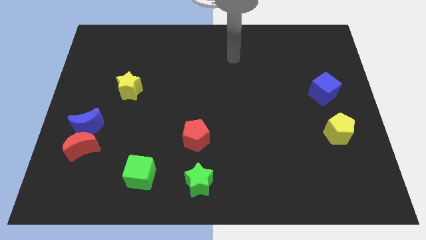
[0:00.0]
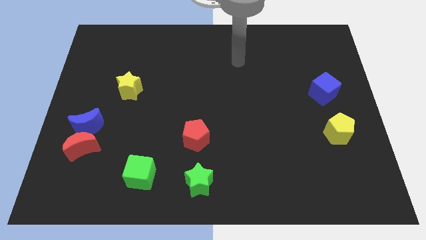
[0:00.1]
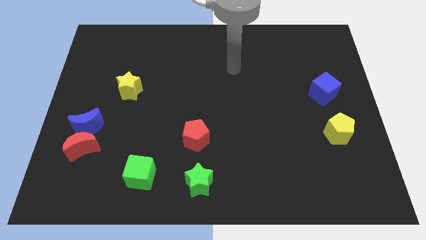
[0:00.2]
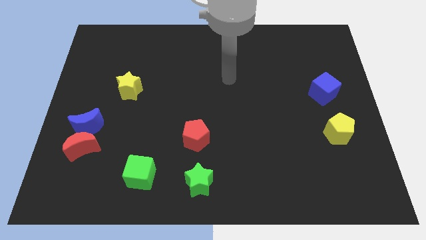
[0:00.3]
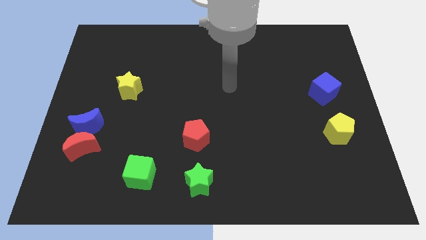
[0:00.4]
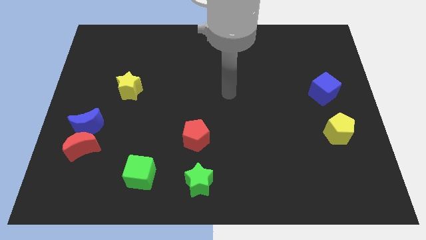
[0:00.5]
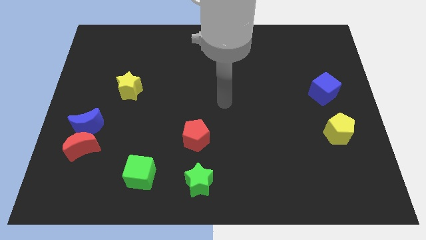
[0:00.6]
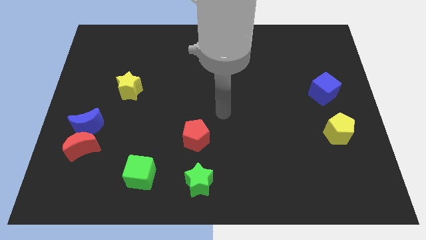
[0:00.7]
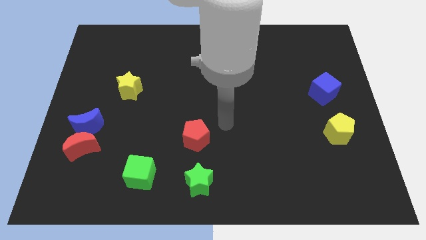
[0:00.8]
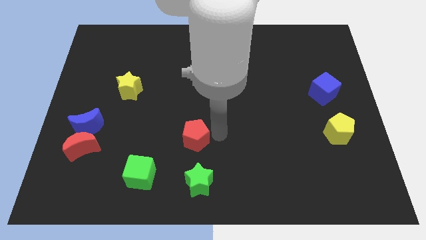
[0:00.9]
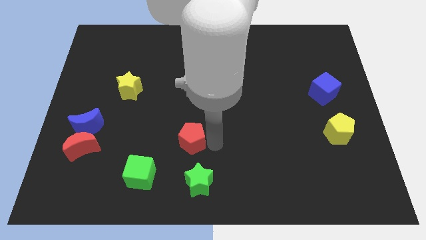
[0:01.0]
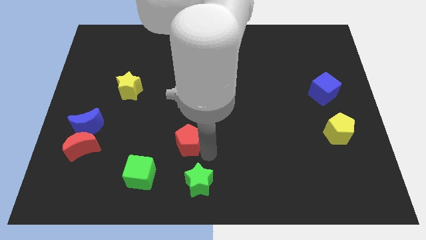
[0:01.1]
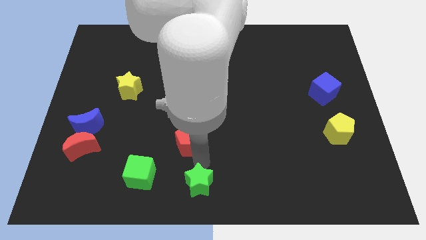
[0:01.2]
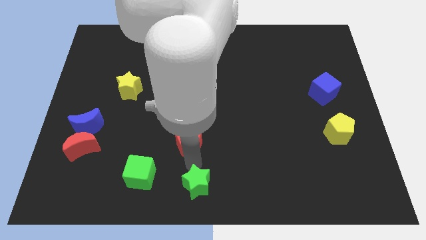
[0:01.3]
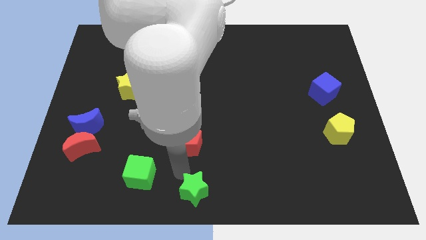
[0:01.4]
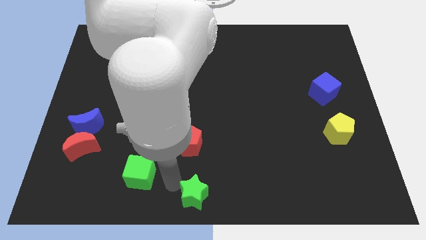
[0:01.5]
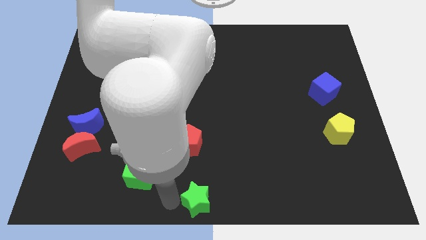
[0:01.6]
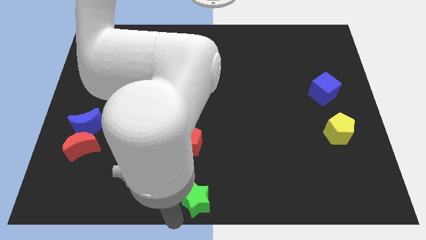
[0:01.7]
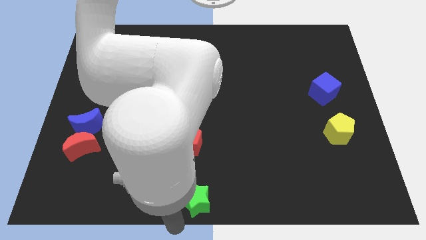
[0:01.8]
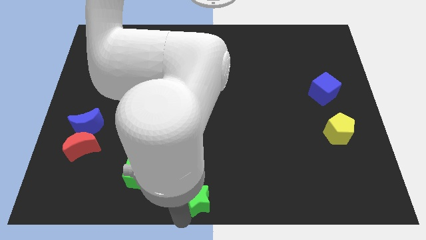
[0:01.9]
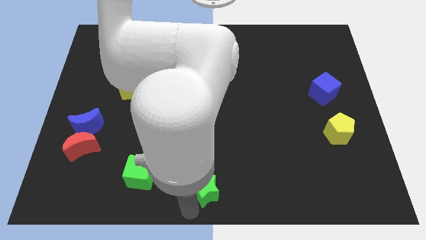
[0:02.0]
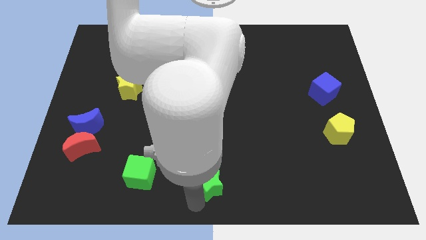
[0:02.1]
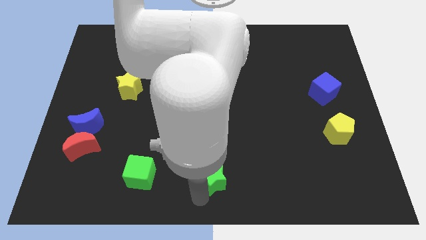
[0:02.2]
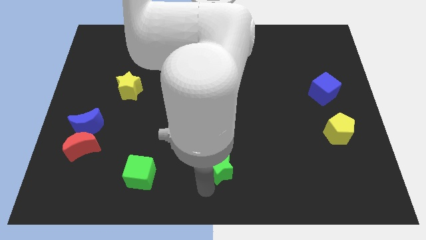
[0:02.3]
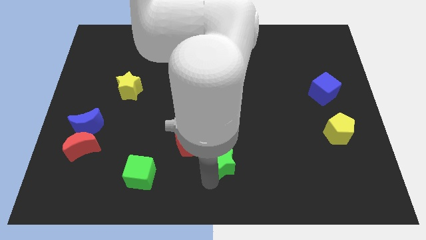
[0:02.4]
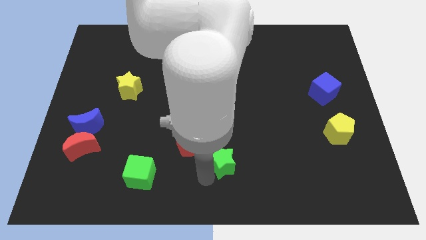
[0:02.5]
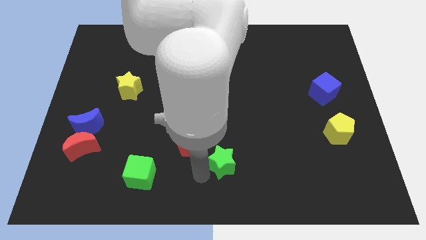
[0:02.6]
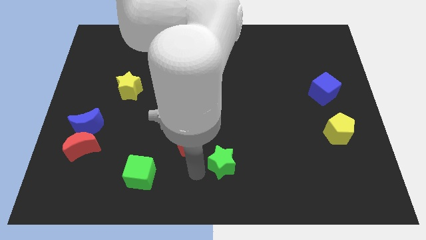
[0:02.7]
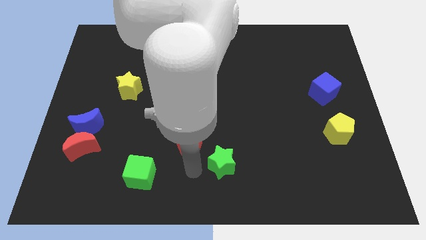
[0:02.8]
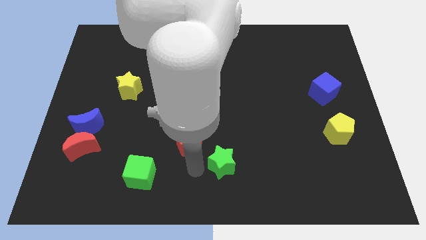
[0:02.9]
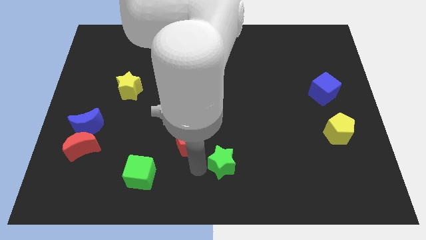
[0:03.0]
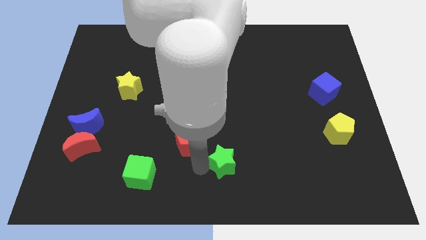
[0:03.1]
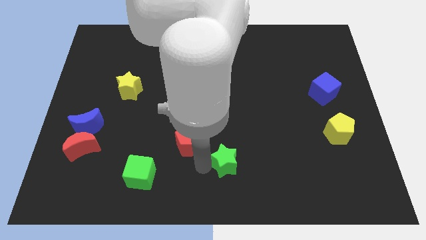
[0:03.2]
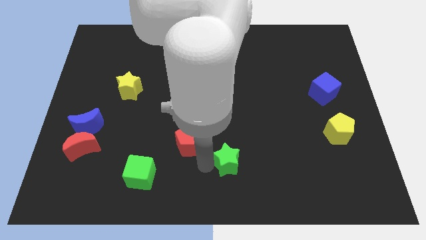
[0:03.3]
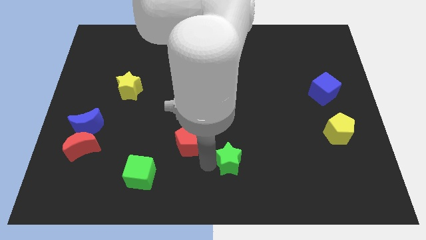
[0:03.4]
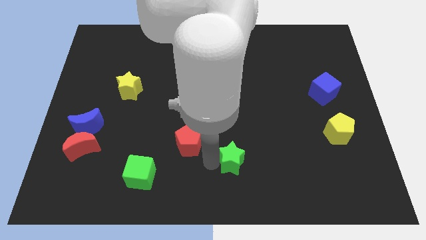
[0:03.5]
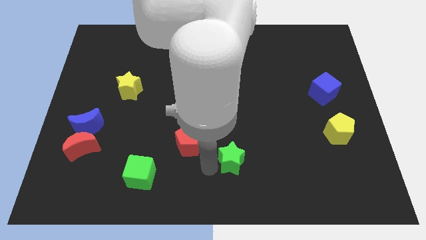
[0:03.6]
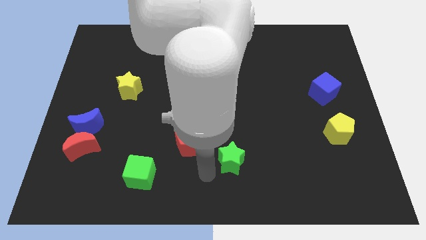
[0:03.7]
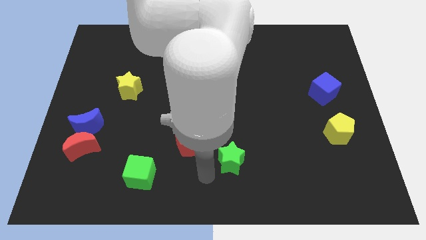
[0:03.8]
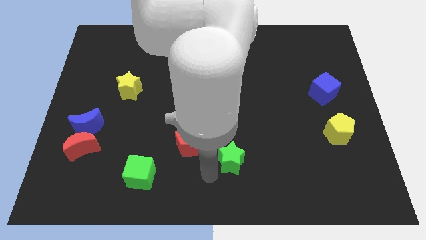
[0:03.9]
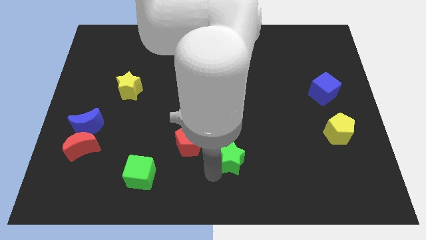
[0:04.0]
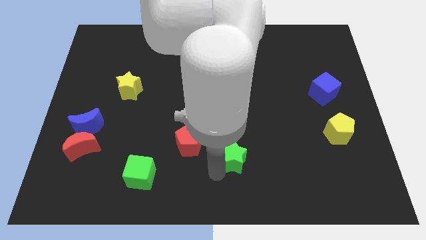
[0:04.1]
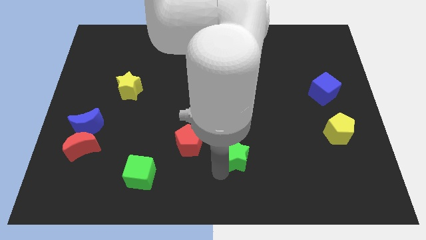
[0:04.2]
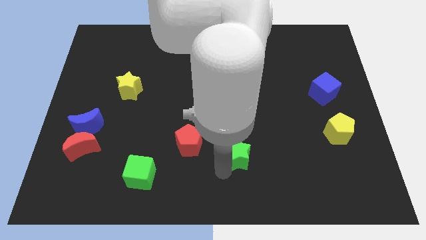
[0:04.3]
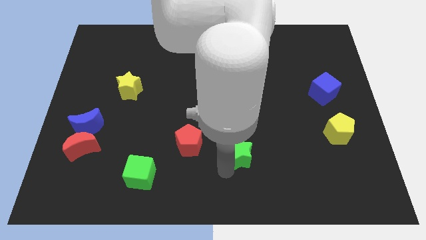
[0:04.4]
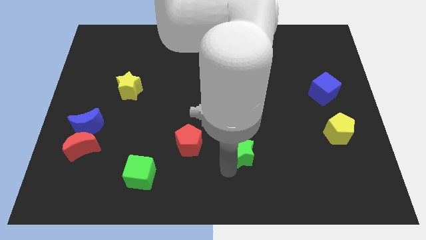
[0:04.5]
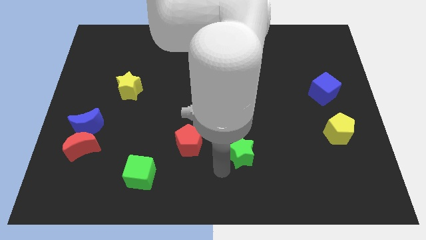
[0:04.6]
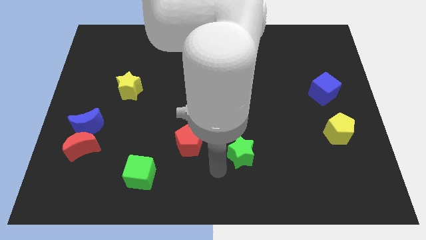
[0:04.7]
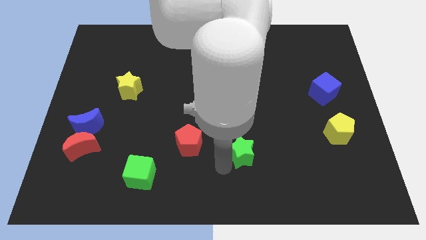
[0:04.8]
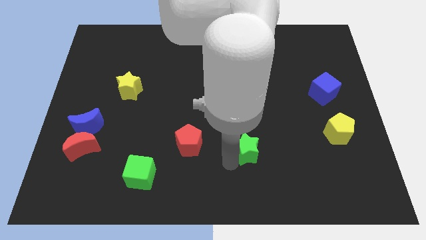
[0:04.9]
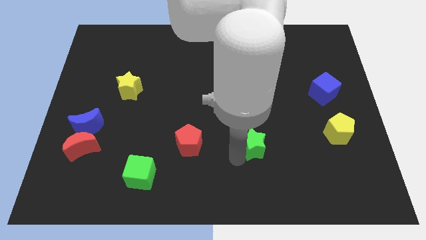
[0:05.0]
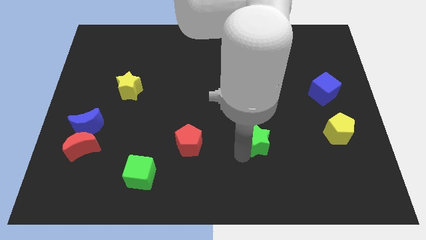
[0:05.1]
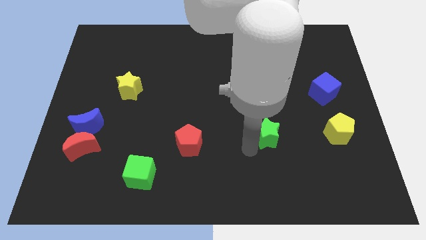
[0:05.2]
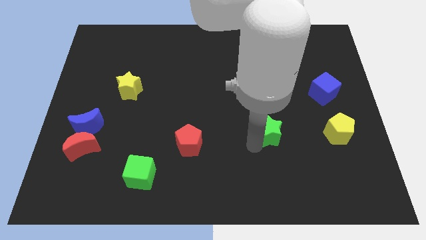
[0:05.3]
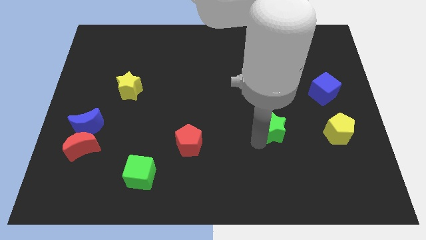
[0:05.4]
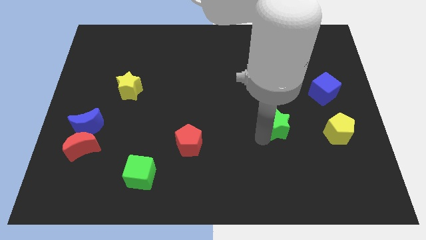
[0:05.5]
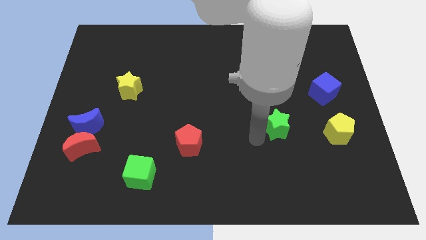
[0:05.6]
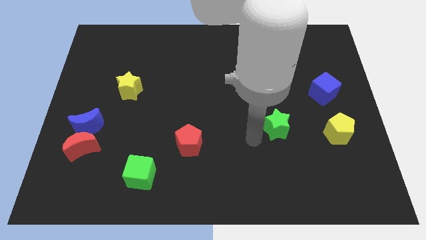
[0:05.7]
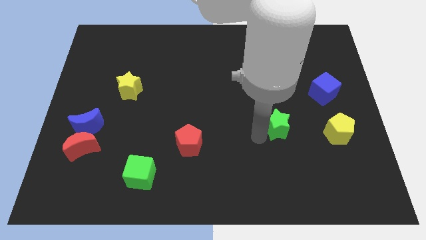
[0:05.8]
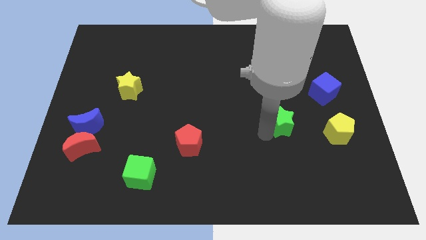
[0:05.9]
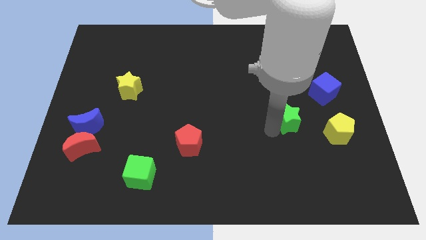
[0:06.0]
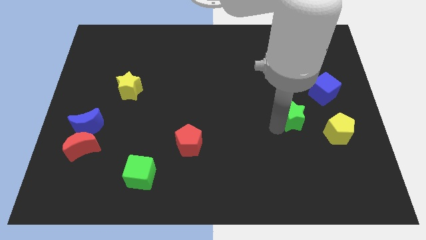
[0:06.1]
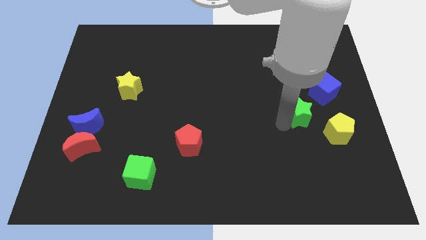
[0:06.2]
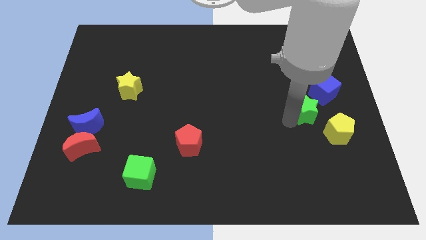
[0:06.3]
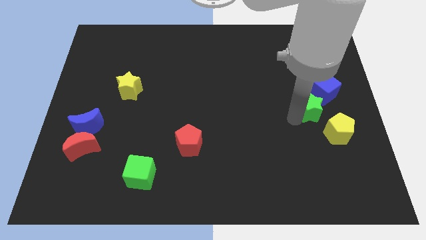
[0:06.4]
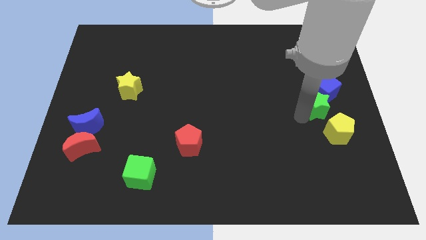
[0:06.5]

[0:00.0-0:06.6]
slide the green star to the blue cube

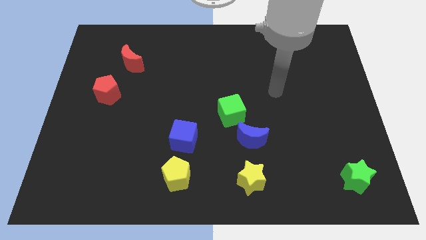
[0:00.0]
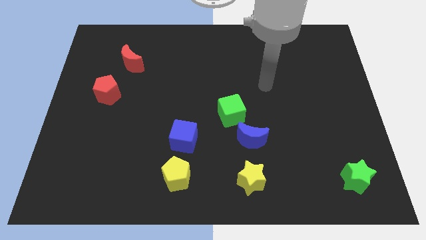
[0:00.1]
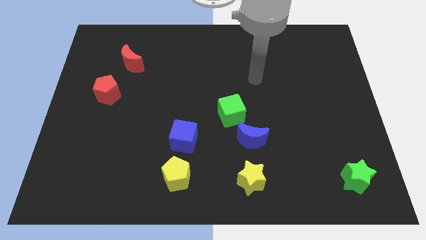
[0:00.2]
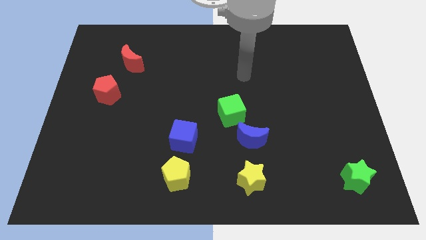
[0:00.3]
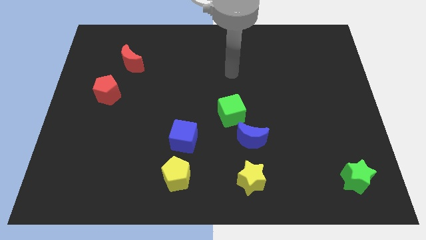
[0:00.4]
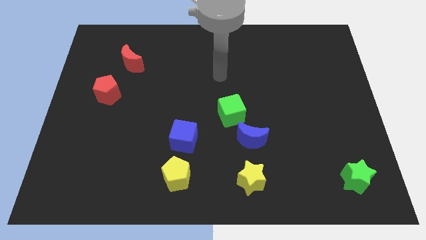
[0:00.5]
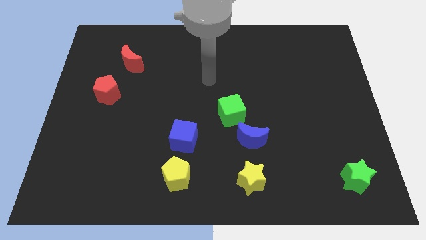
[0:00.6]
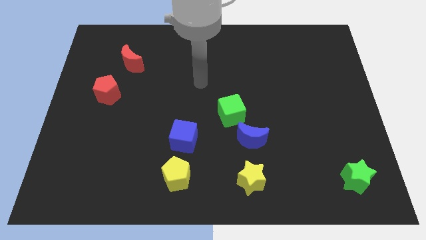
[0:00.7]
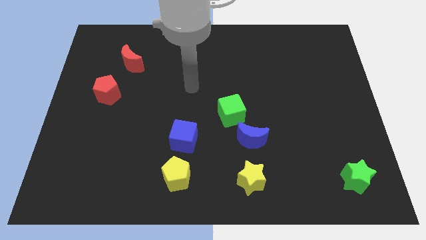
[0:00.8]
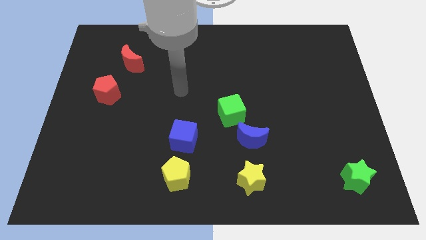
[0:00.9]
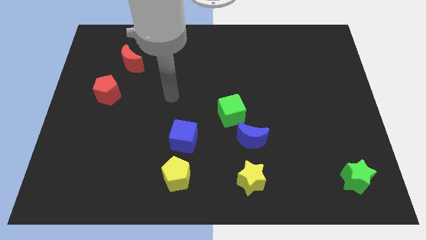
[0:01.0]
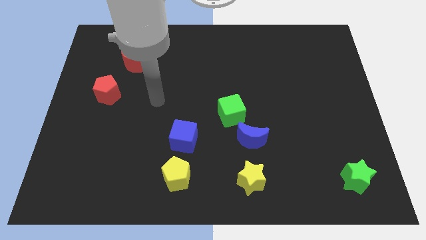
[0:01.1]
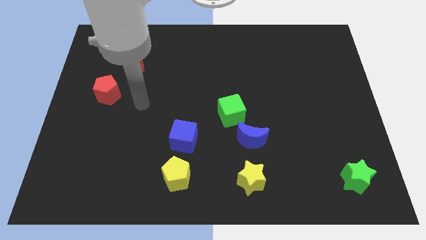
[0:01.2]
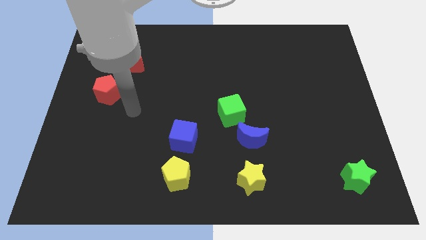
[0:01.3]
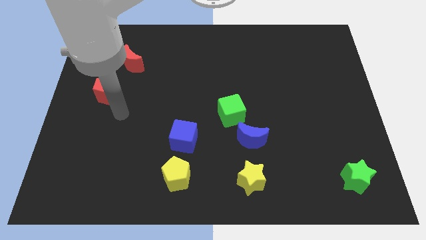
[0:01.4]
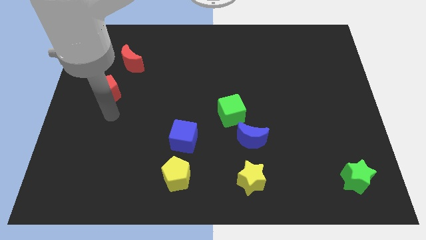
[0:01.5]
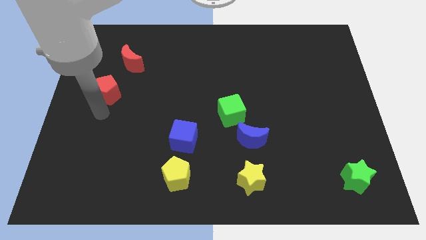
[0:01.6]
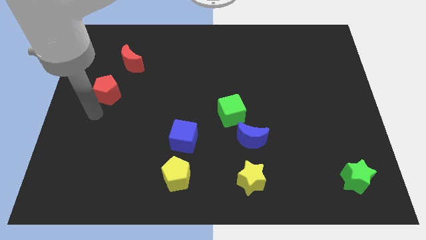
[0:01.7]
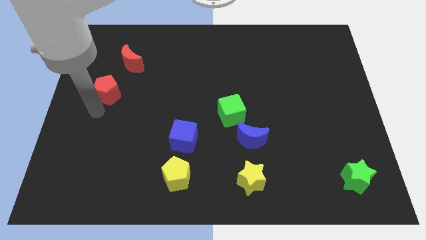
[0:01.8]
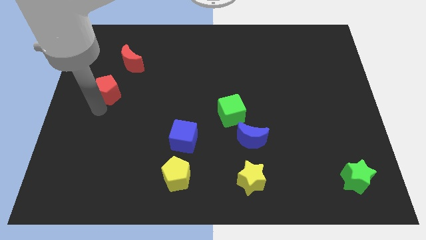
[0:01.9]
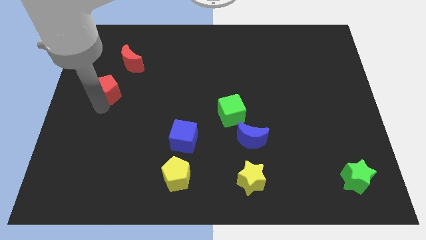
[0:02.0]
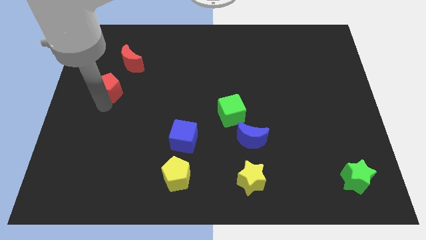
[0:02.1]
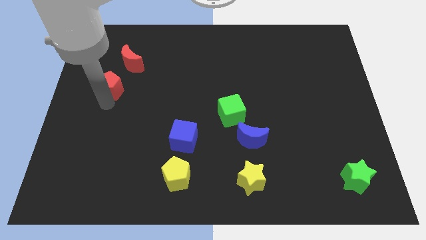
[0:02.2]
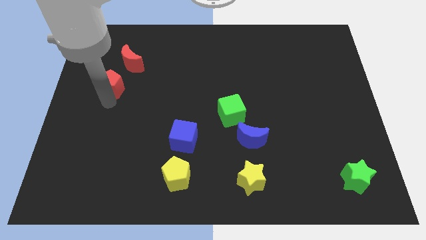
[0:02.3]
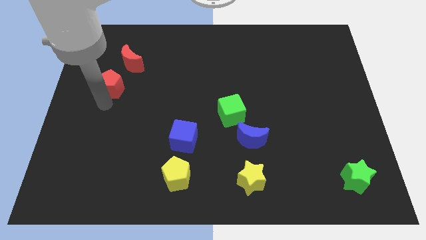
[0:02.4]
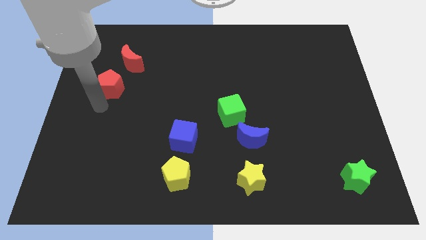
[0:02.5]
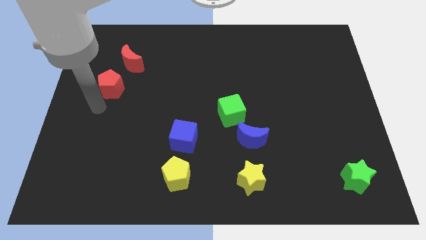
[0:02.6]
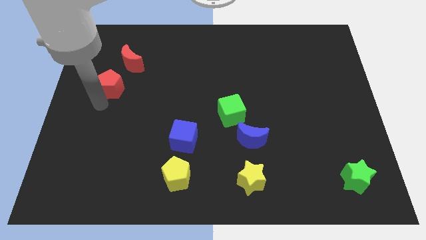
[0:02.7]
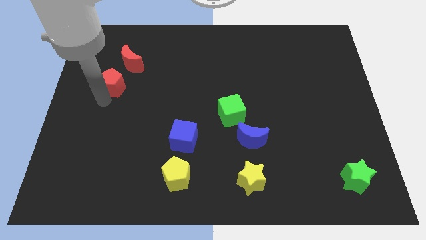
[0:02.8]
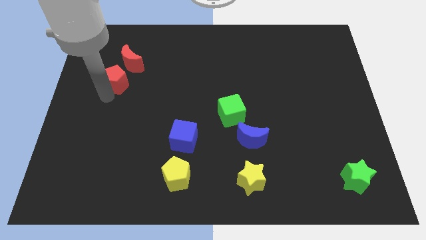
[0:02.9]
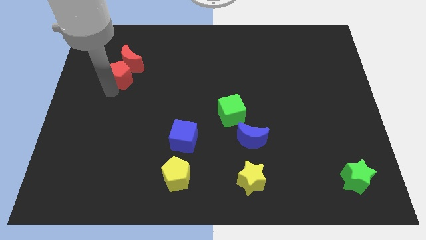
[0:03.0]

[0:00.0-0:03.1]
slide the red pentagon towards the red moon
